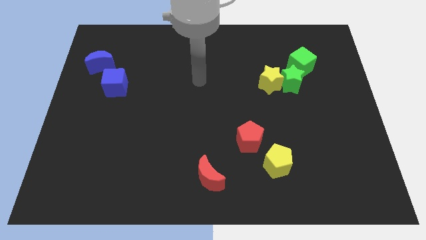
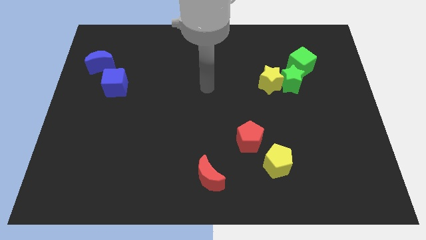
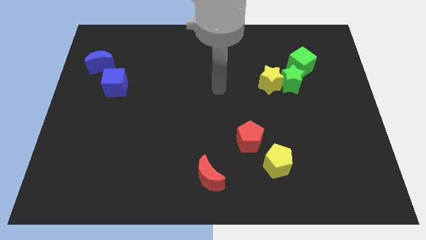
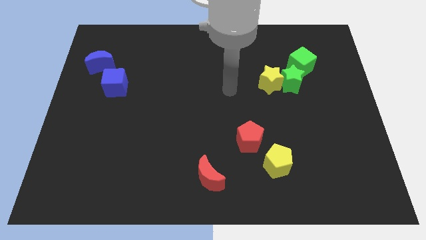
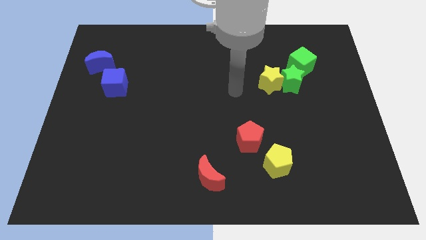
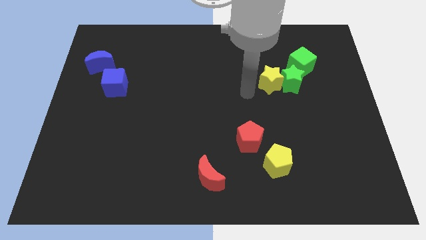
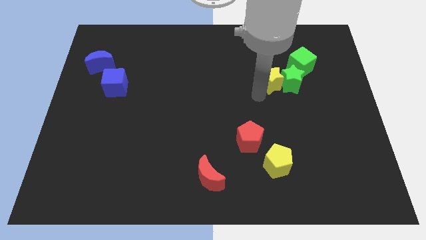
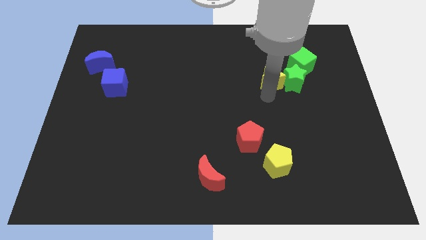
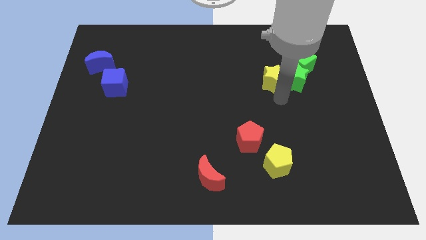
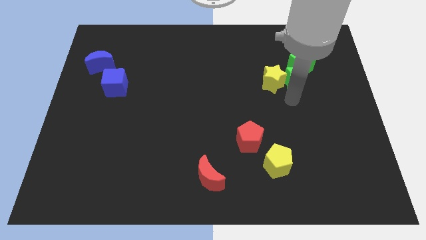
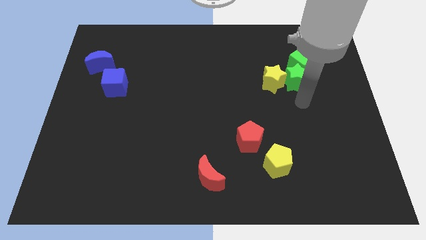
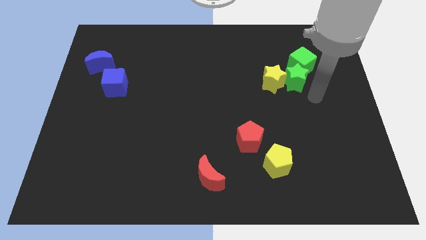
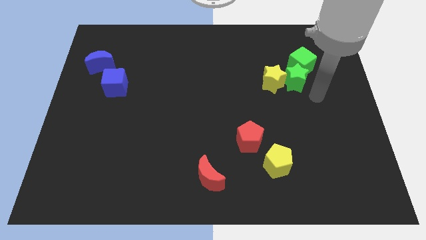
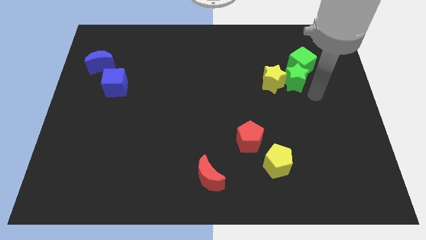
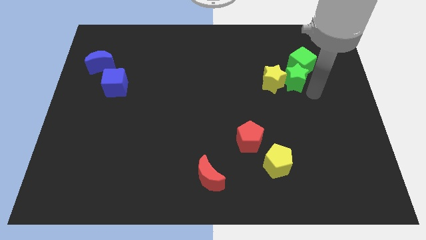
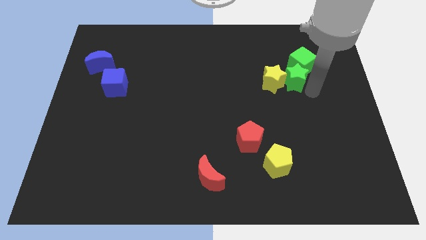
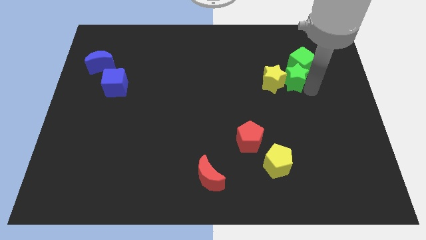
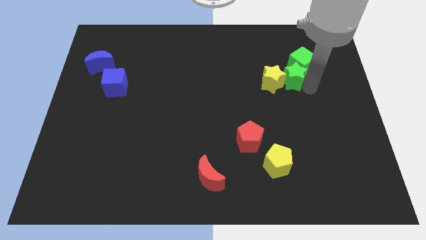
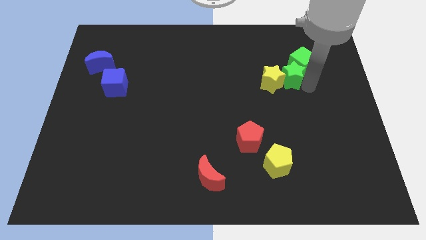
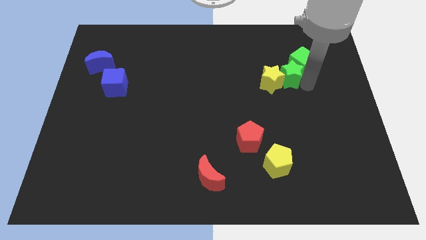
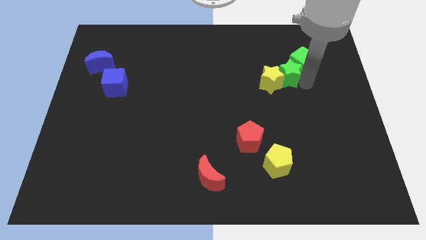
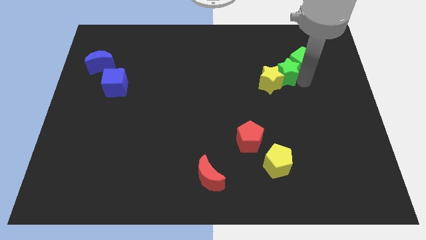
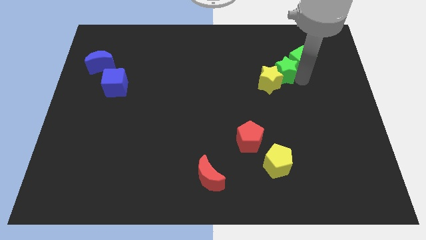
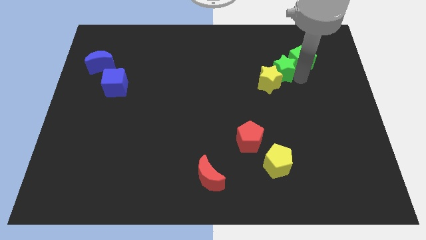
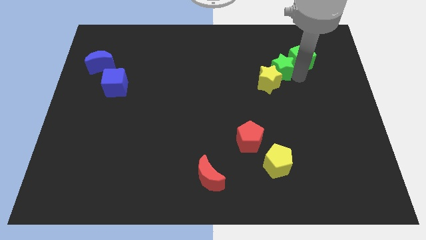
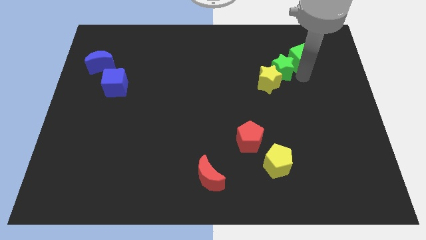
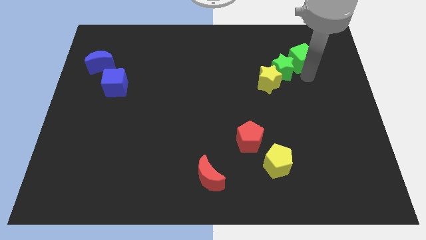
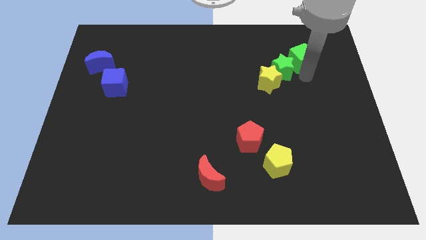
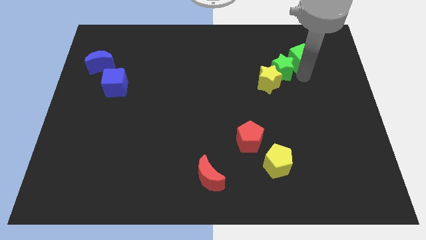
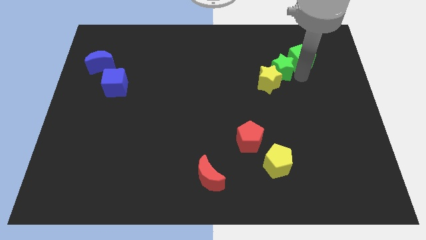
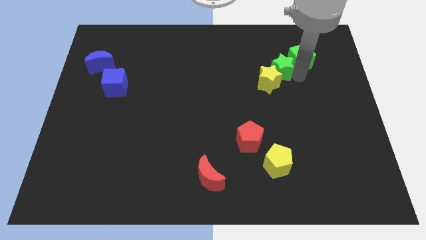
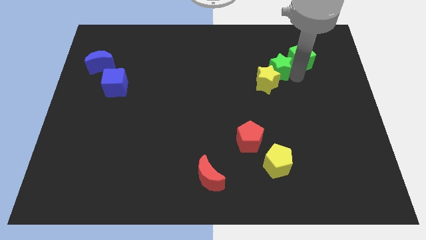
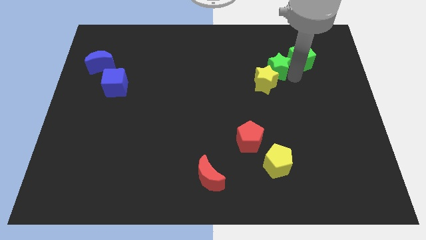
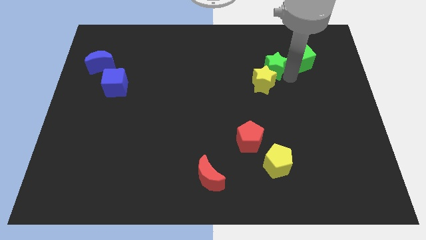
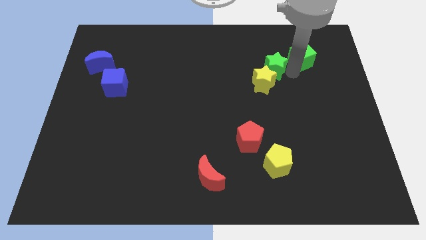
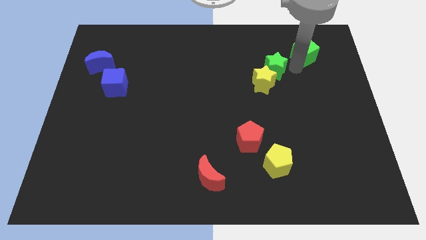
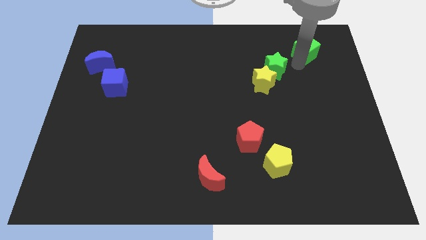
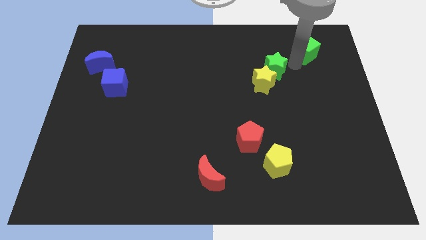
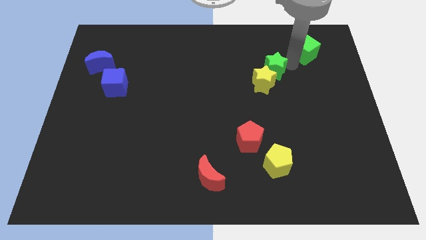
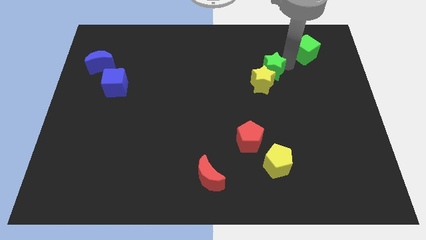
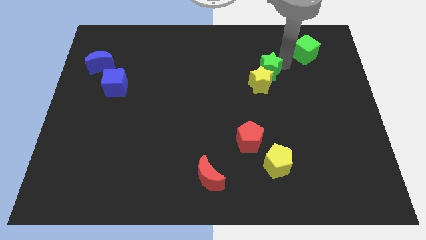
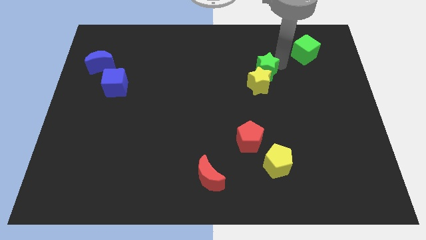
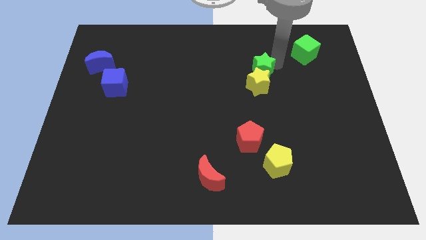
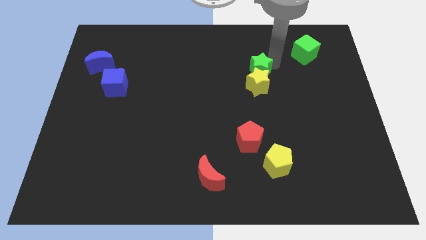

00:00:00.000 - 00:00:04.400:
slide the green star slightly to the left

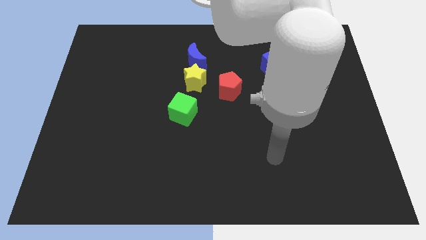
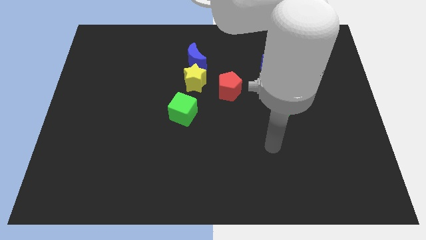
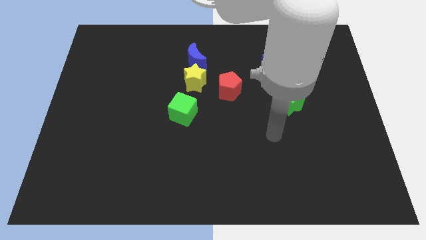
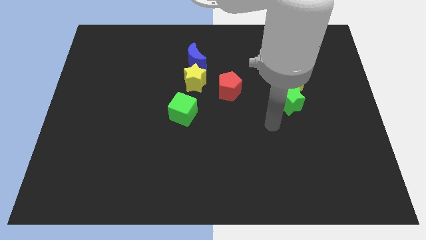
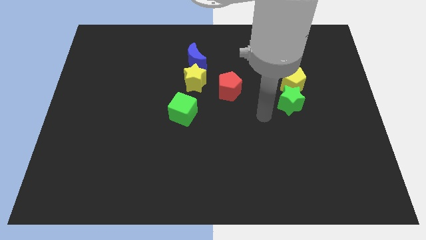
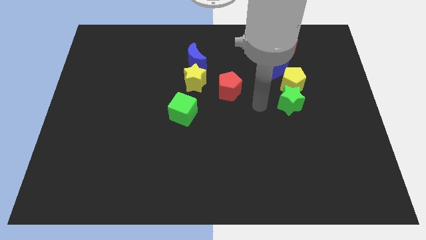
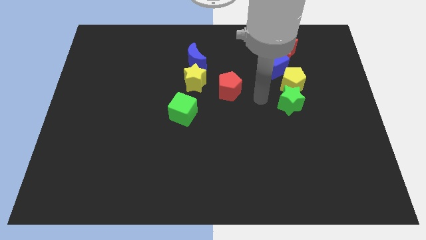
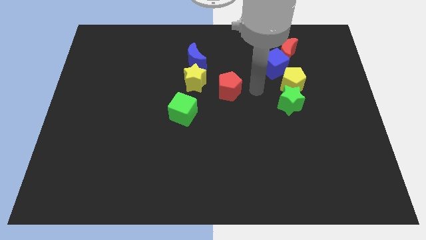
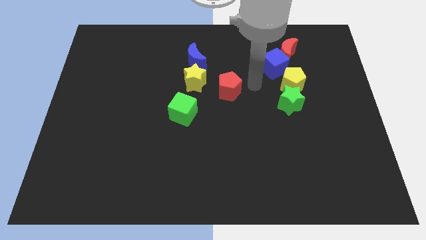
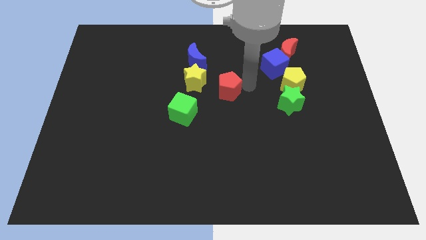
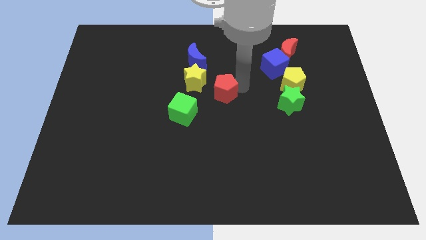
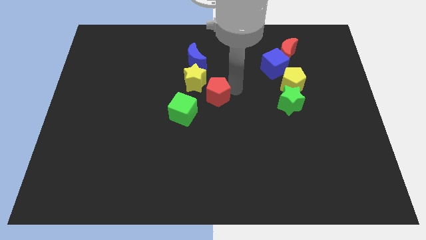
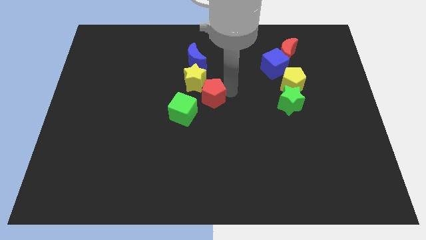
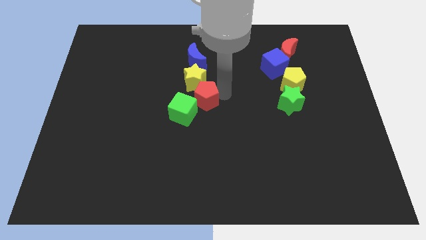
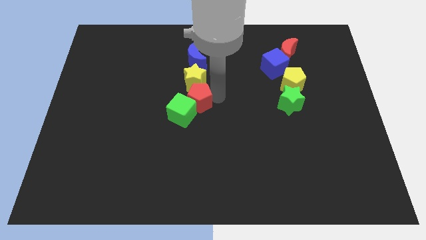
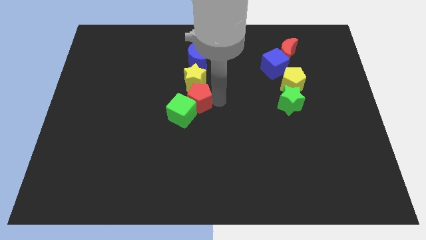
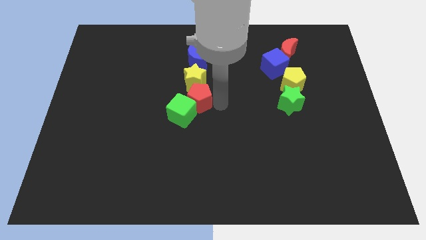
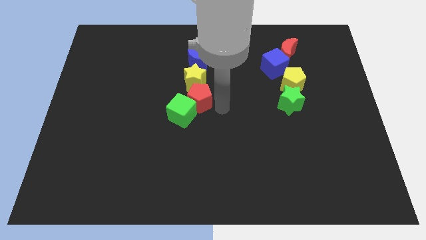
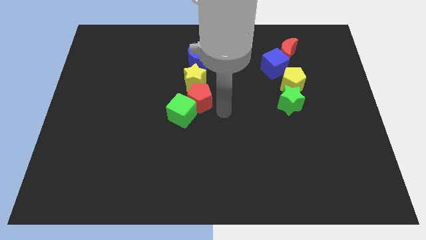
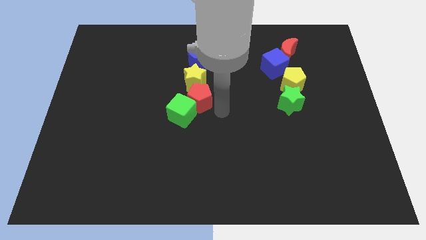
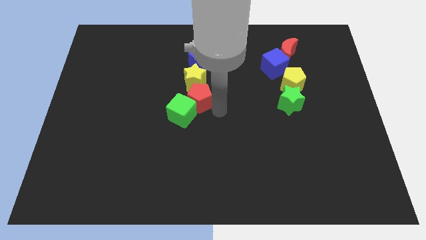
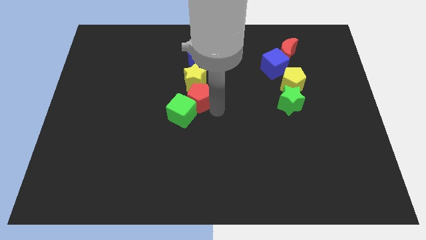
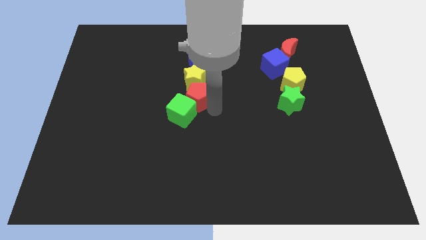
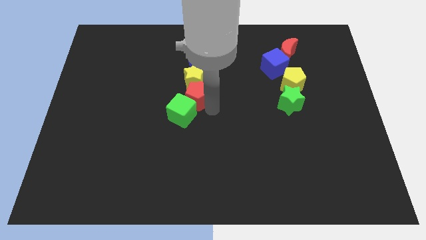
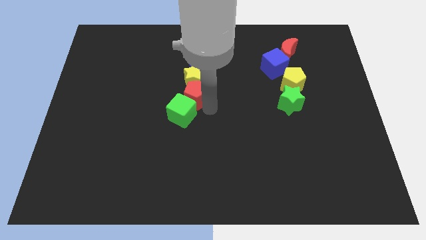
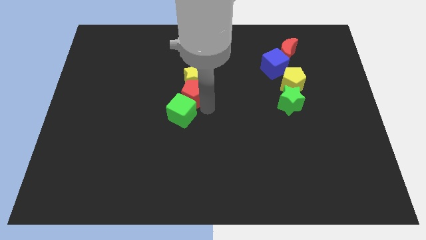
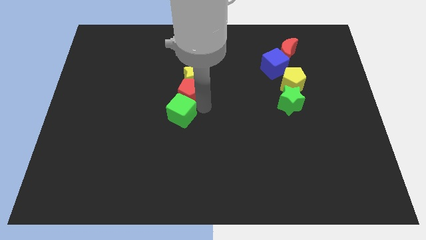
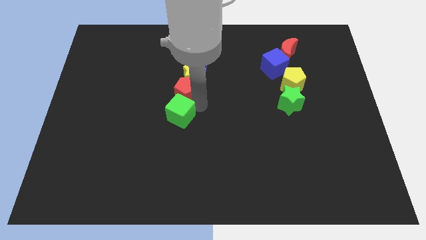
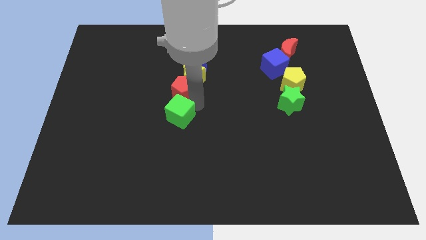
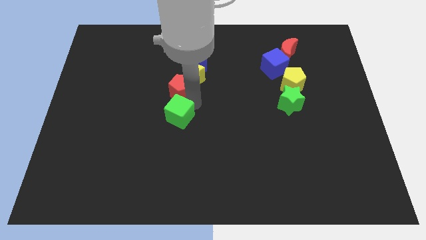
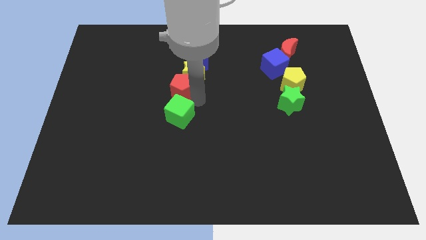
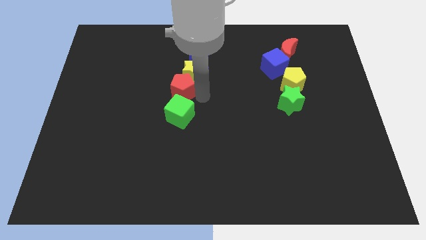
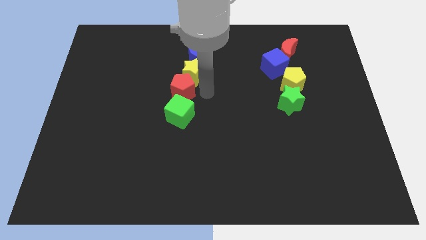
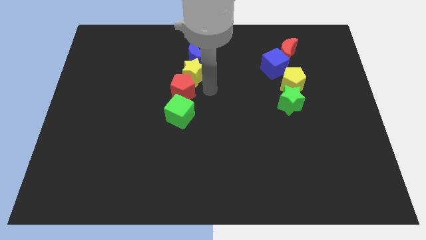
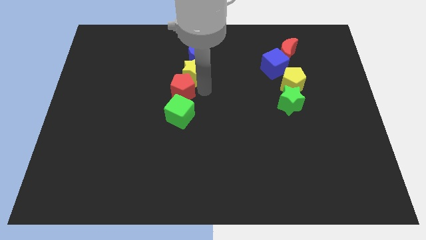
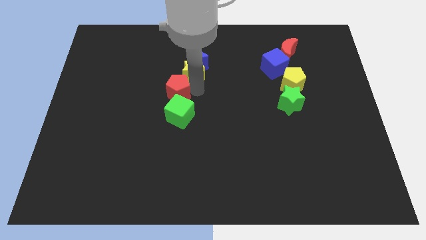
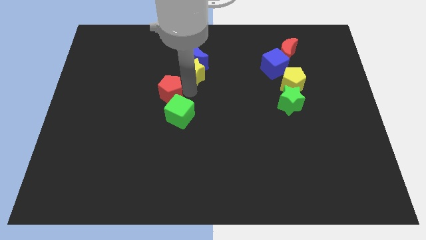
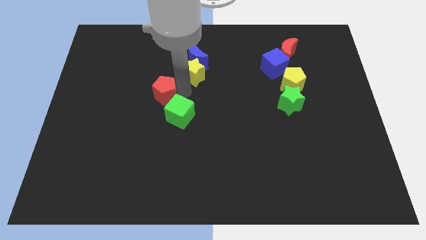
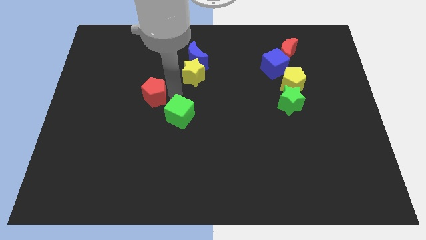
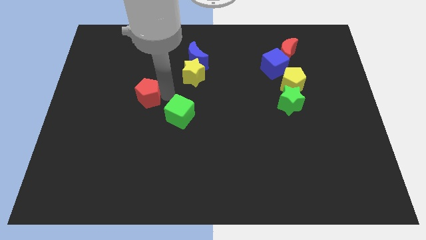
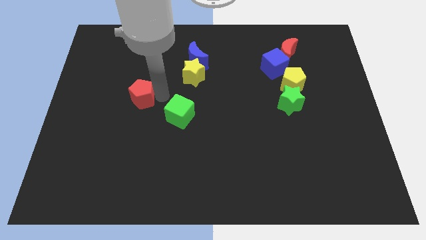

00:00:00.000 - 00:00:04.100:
slide the red pentagon left
